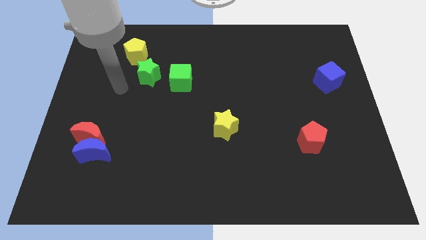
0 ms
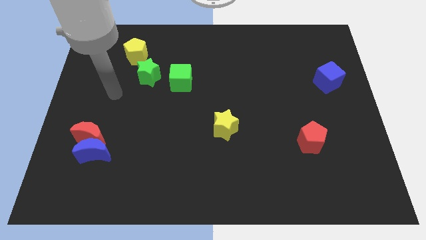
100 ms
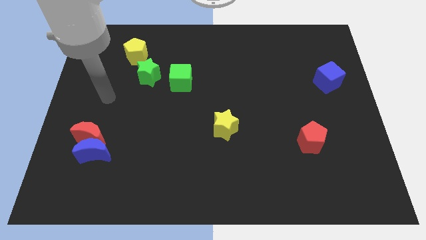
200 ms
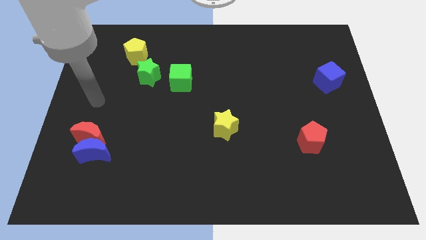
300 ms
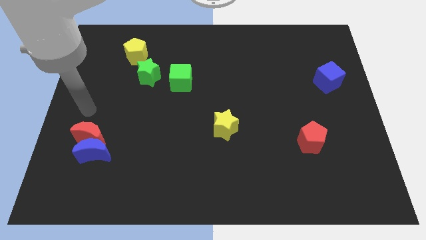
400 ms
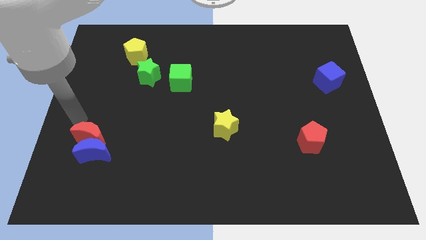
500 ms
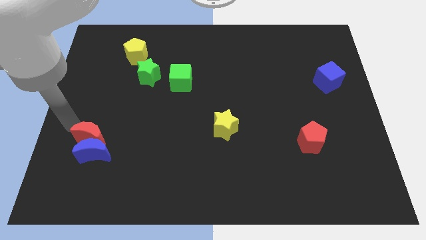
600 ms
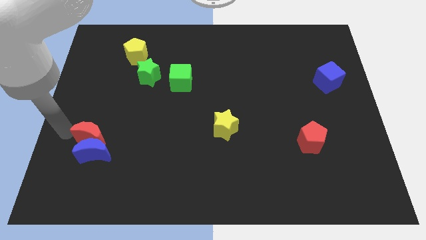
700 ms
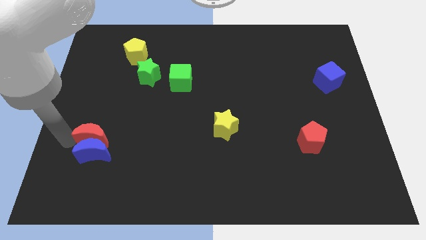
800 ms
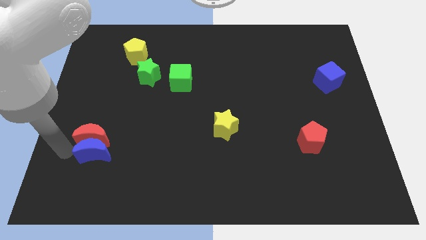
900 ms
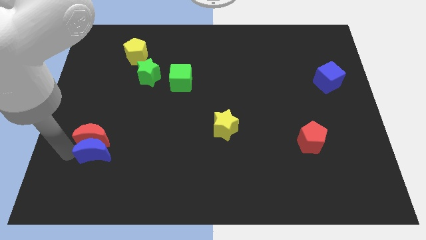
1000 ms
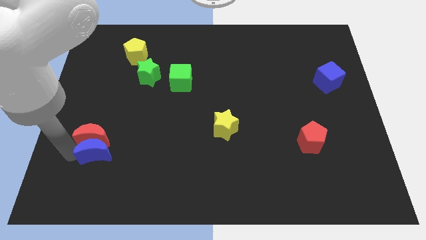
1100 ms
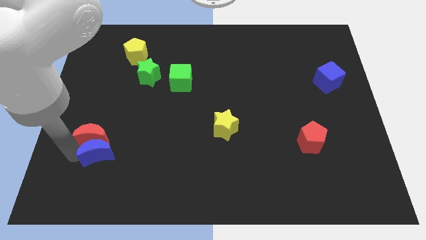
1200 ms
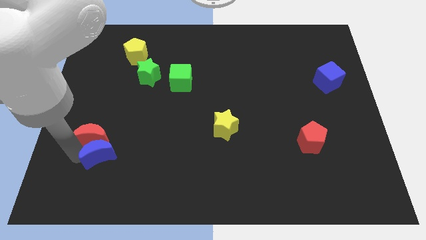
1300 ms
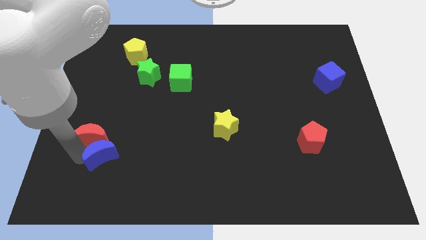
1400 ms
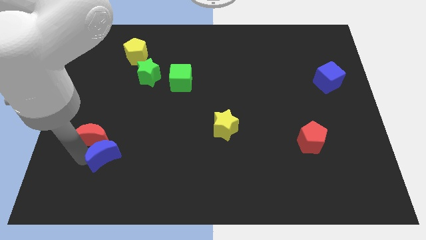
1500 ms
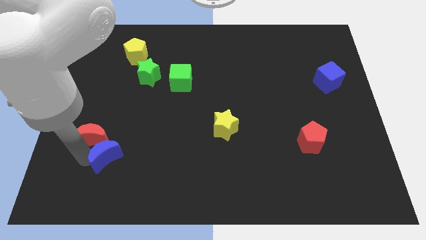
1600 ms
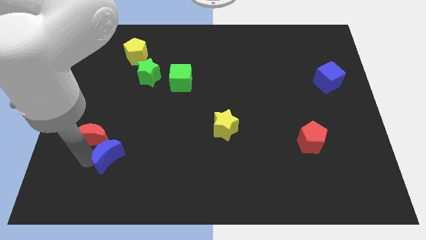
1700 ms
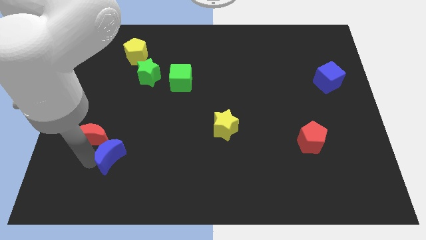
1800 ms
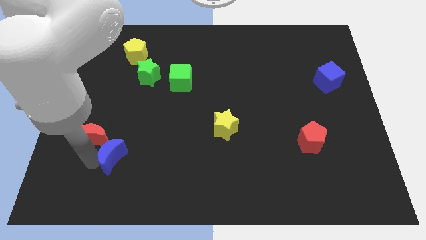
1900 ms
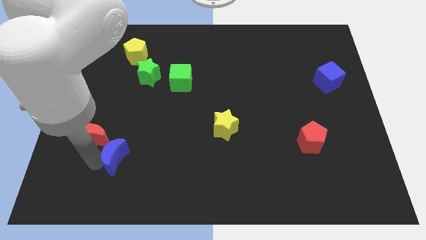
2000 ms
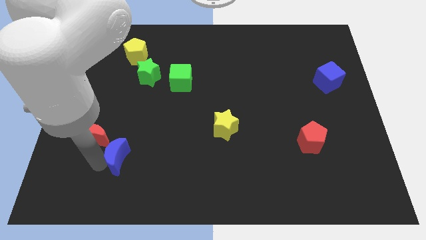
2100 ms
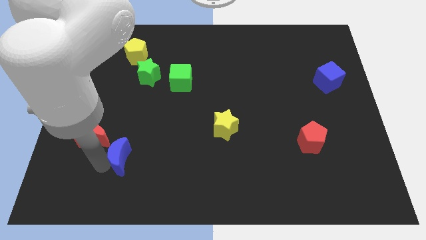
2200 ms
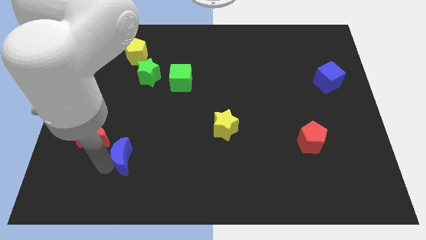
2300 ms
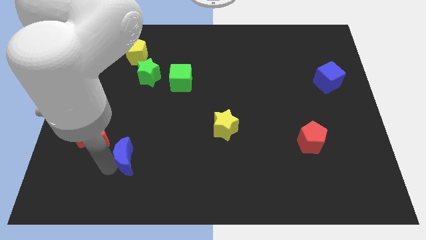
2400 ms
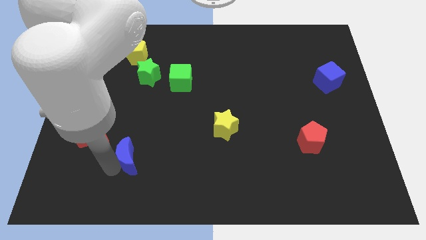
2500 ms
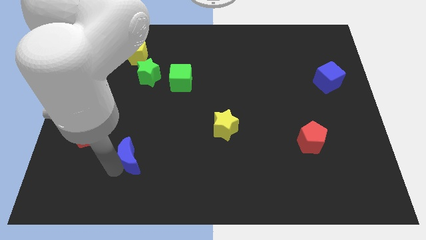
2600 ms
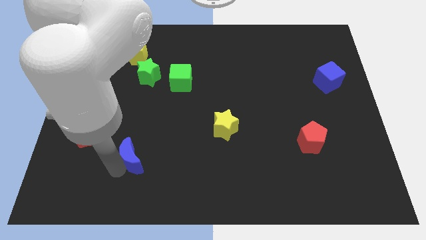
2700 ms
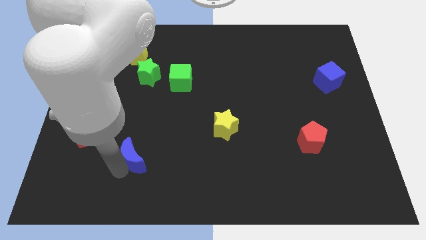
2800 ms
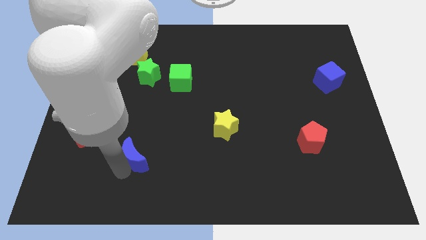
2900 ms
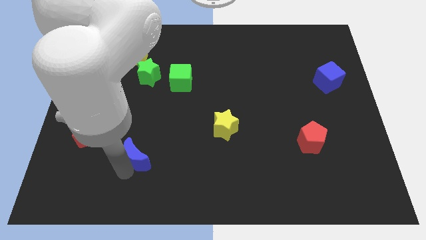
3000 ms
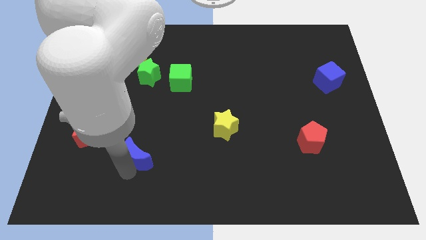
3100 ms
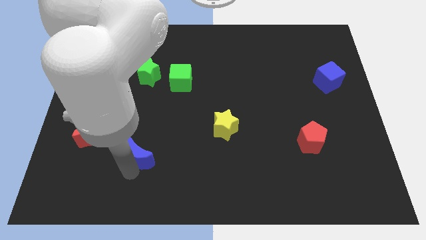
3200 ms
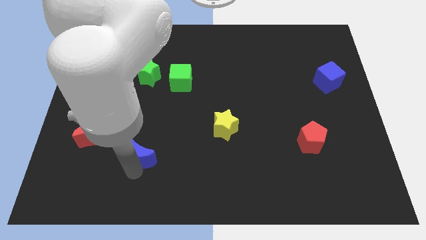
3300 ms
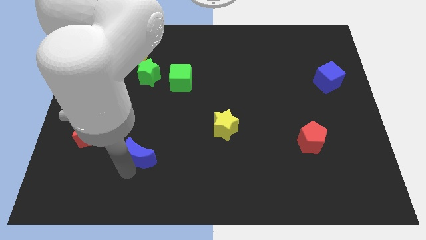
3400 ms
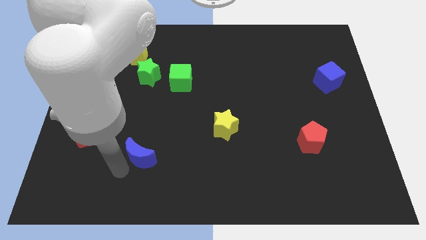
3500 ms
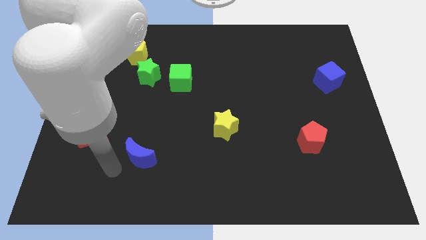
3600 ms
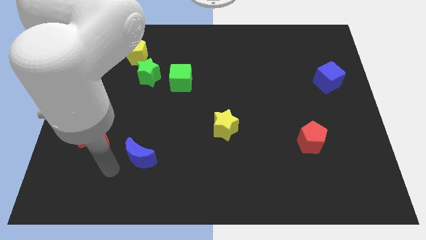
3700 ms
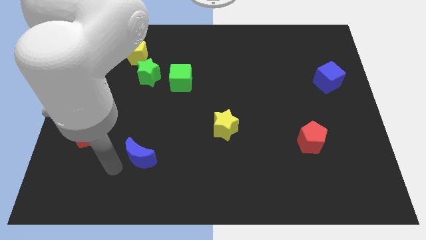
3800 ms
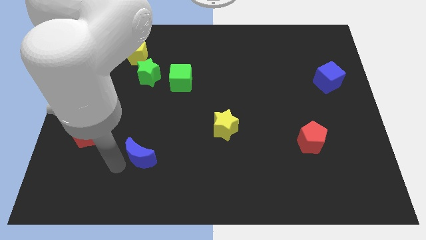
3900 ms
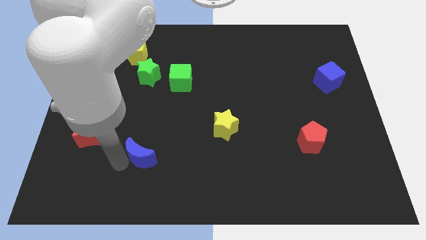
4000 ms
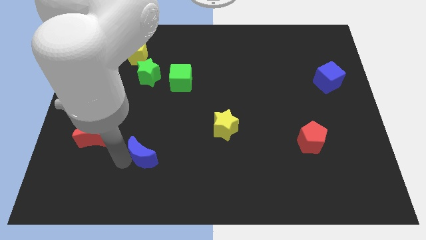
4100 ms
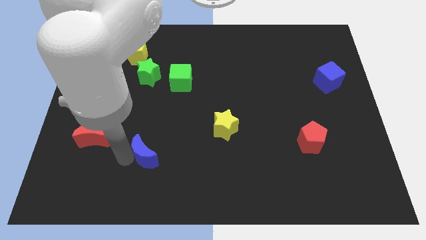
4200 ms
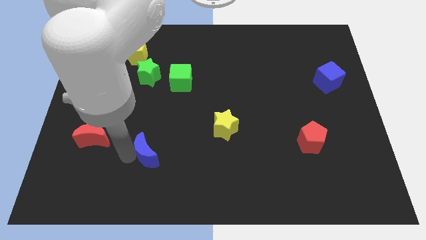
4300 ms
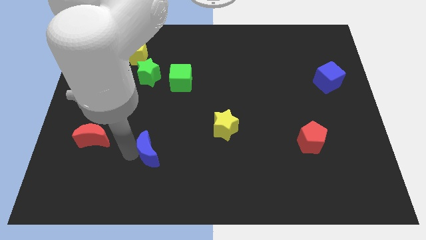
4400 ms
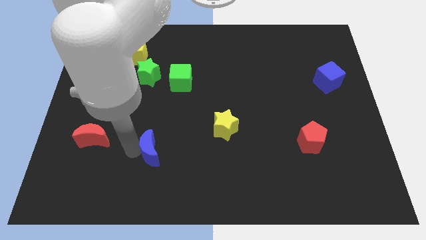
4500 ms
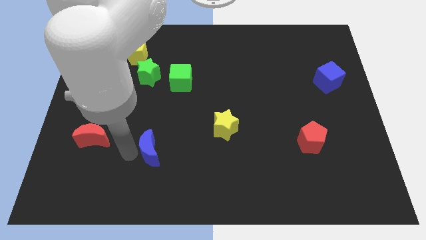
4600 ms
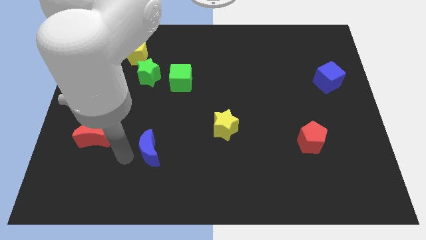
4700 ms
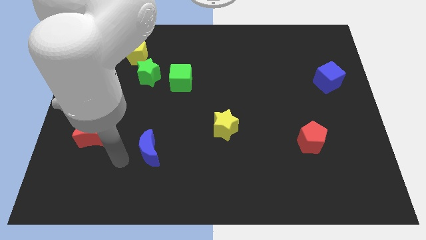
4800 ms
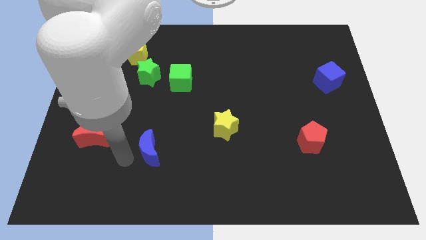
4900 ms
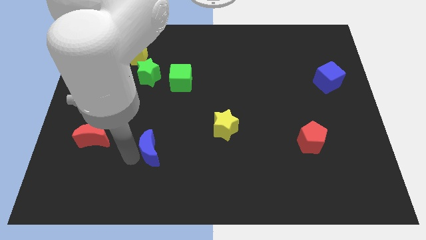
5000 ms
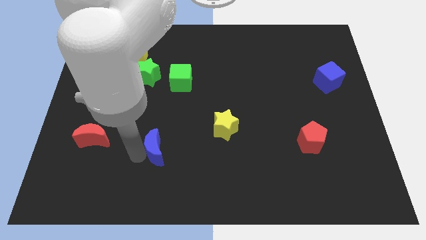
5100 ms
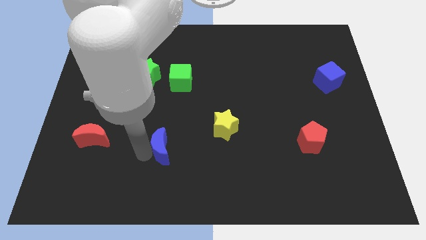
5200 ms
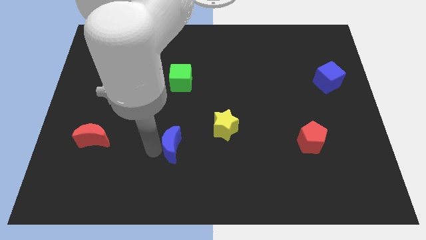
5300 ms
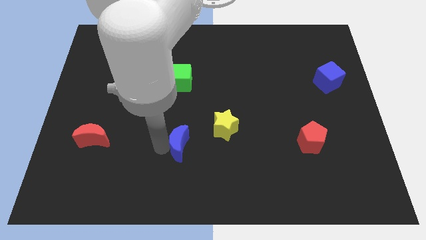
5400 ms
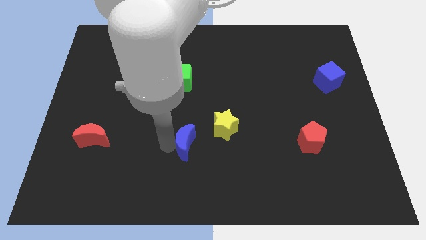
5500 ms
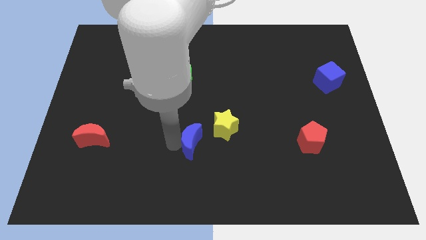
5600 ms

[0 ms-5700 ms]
move the blue moon right

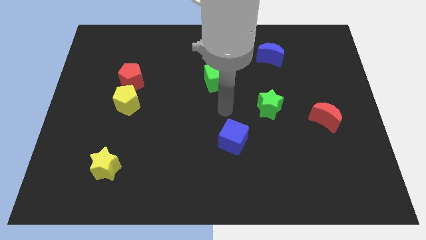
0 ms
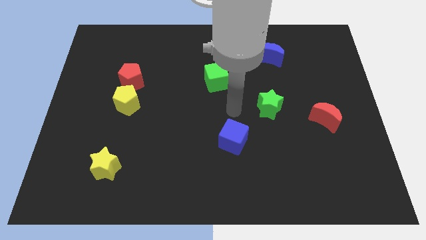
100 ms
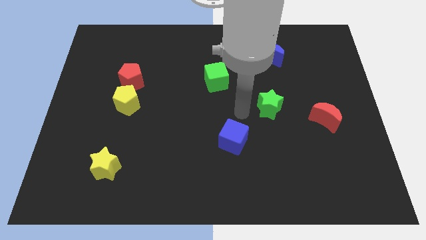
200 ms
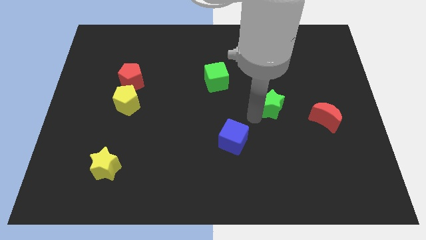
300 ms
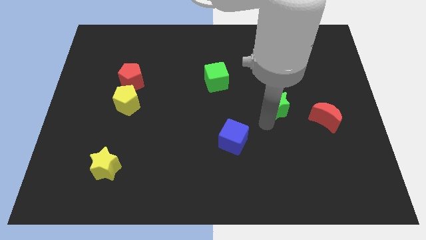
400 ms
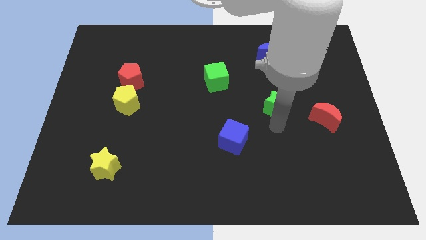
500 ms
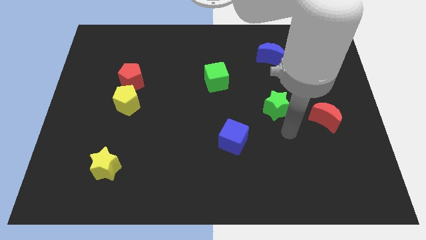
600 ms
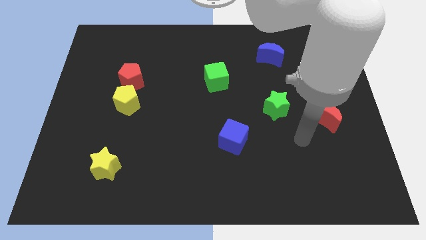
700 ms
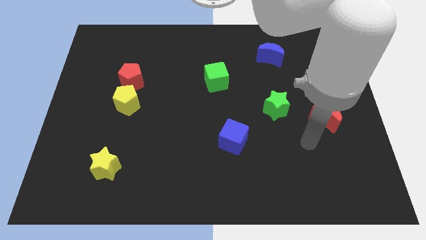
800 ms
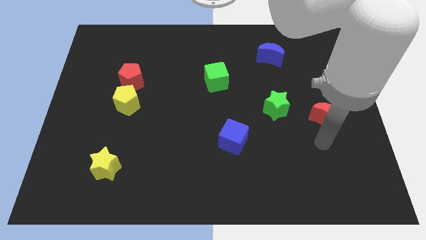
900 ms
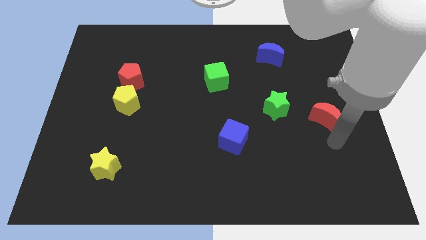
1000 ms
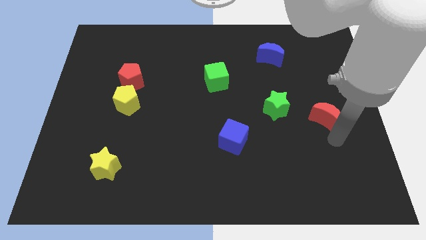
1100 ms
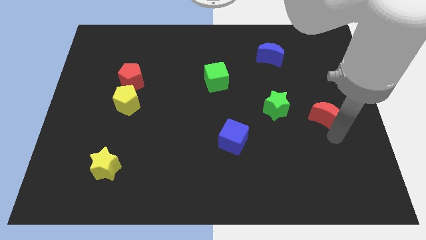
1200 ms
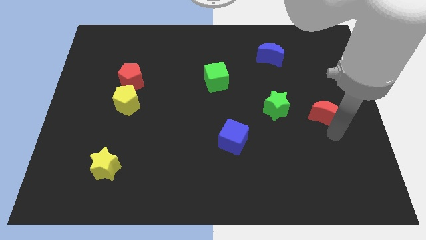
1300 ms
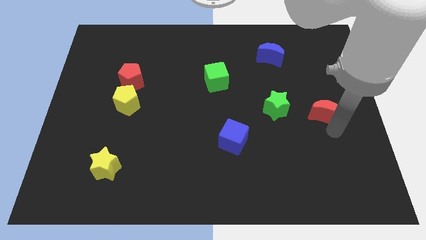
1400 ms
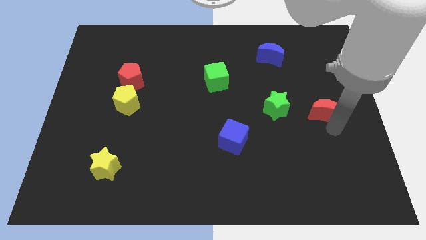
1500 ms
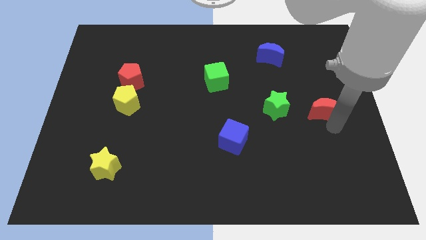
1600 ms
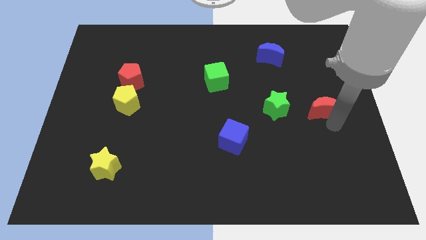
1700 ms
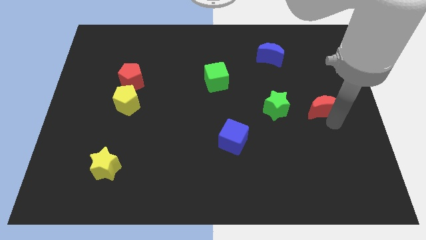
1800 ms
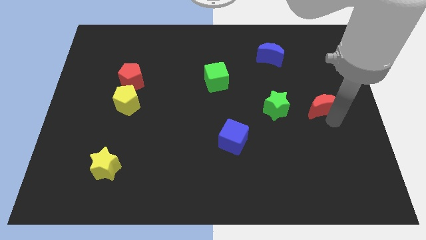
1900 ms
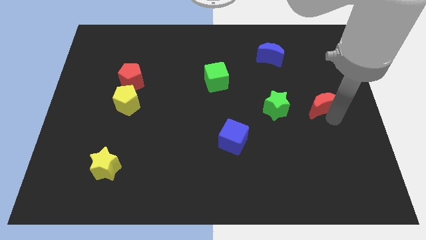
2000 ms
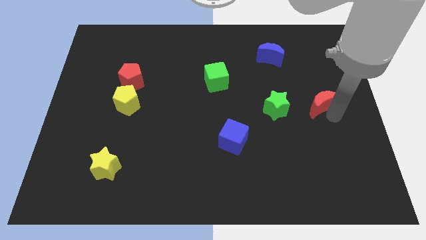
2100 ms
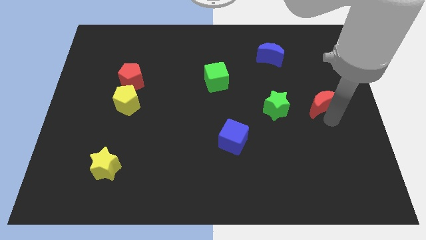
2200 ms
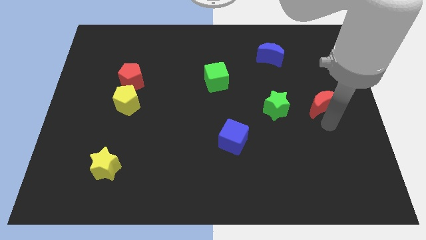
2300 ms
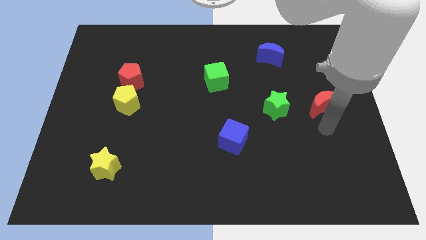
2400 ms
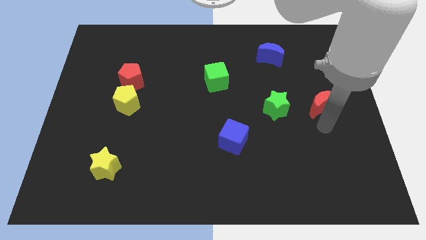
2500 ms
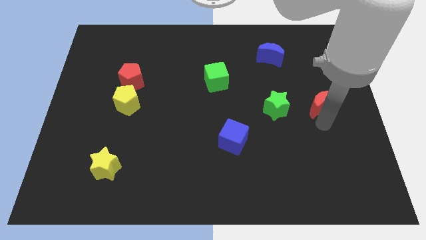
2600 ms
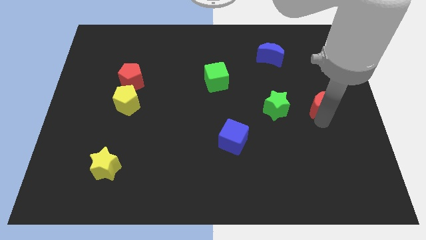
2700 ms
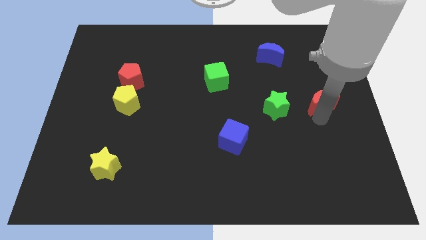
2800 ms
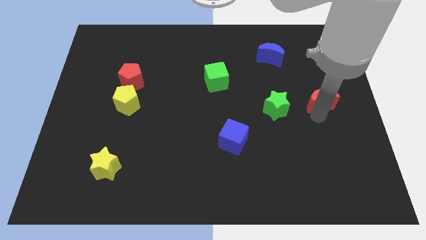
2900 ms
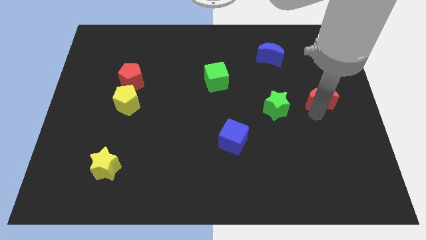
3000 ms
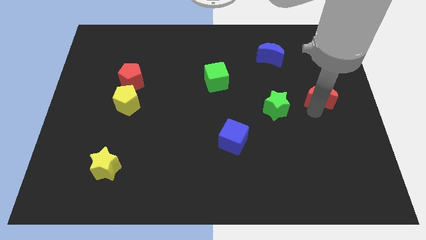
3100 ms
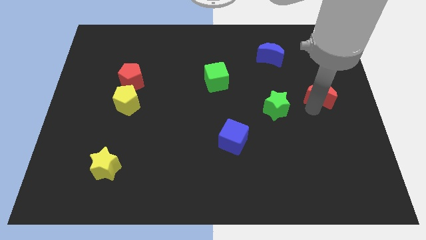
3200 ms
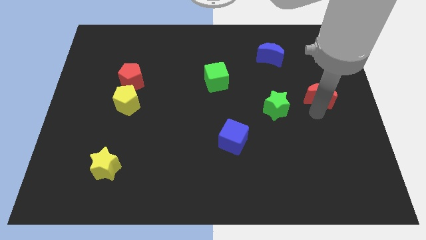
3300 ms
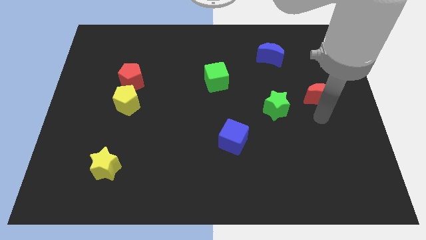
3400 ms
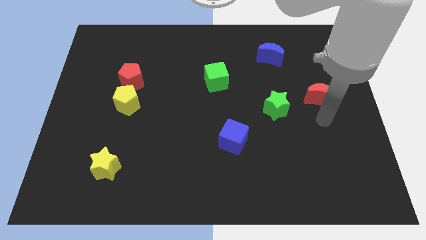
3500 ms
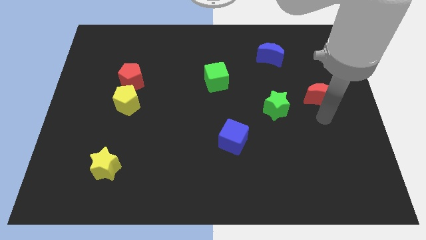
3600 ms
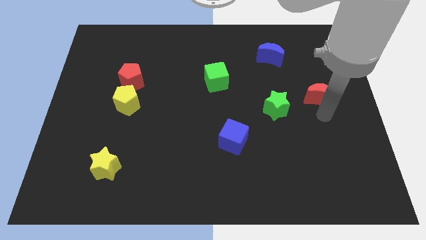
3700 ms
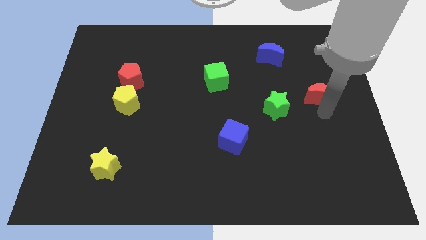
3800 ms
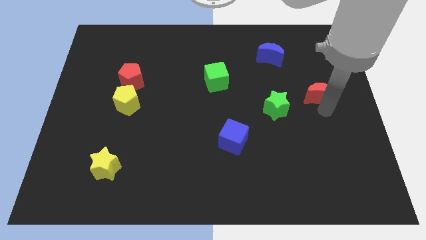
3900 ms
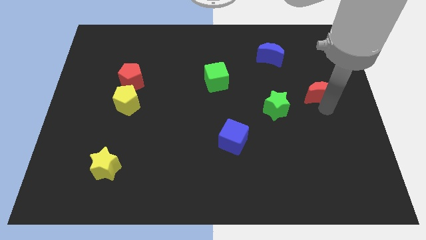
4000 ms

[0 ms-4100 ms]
move the red moon up a bit
